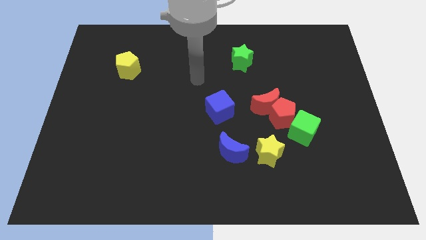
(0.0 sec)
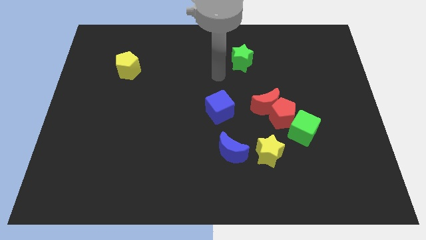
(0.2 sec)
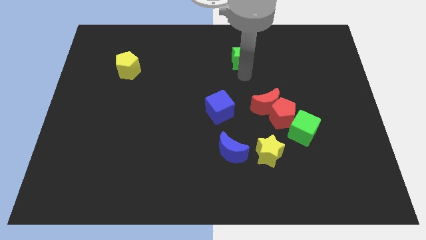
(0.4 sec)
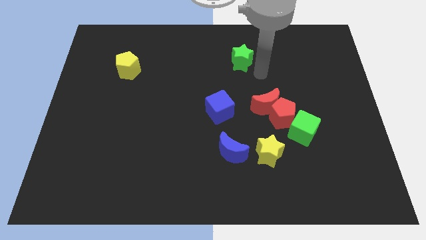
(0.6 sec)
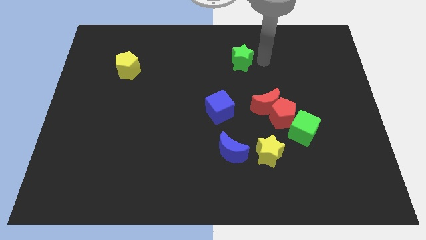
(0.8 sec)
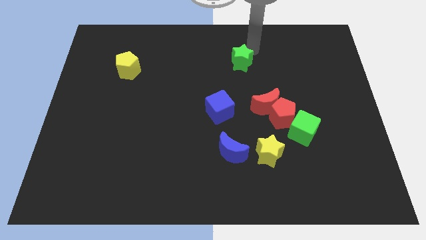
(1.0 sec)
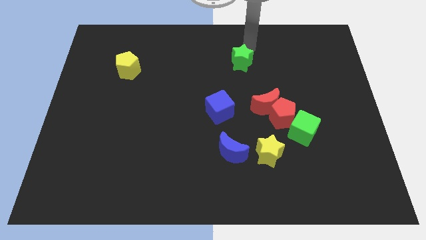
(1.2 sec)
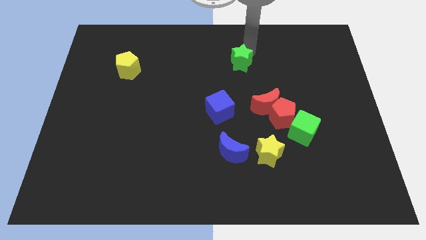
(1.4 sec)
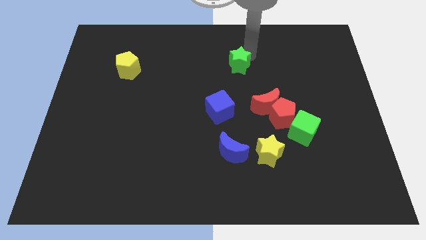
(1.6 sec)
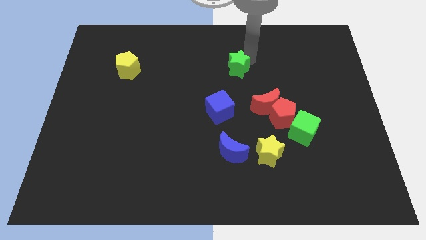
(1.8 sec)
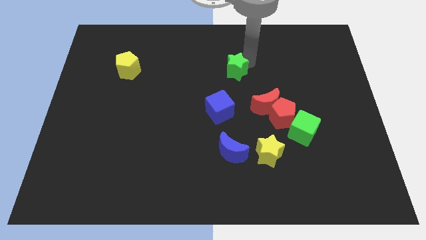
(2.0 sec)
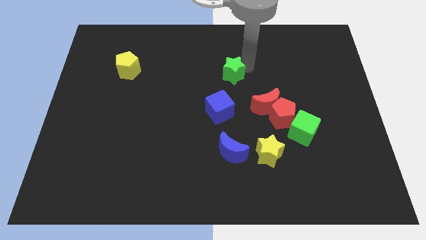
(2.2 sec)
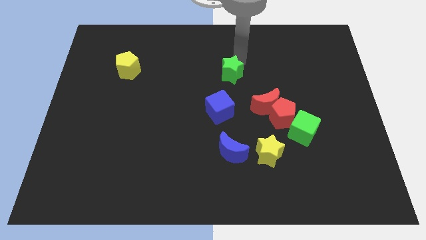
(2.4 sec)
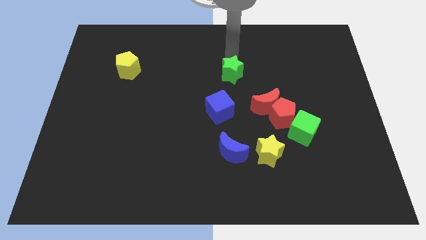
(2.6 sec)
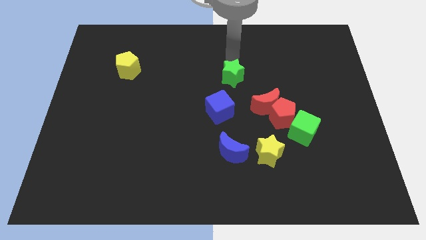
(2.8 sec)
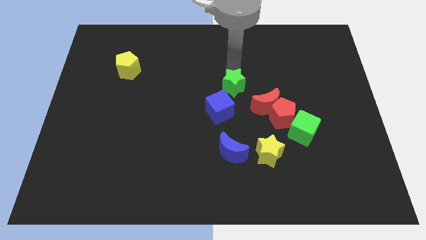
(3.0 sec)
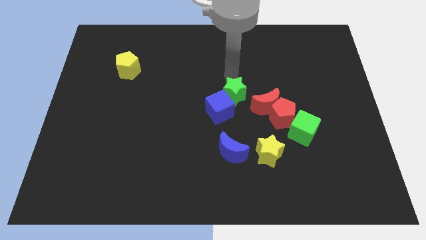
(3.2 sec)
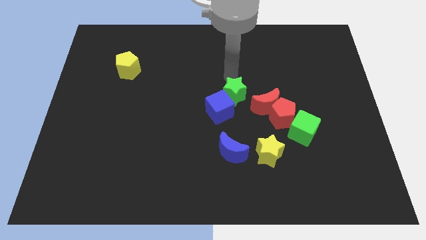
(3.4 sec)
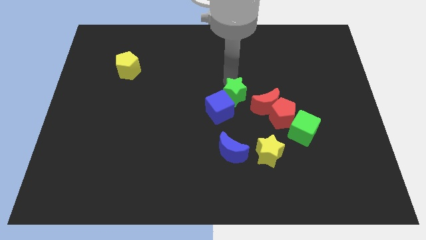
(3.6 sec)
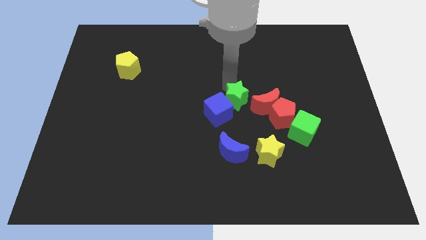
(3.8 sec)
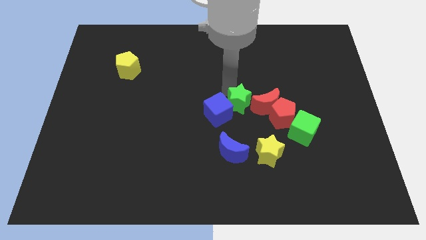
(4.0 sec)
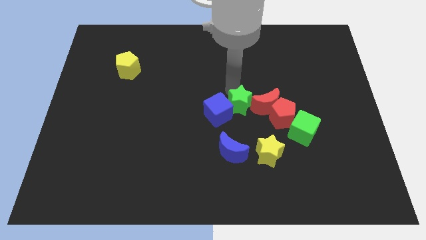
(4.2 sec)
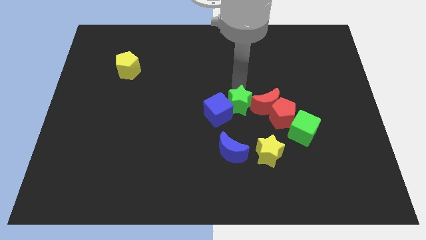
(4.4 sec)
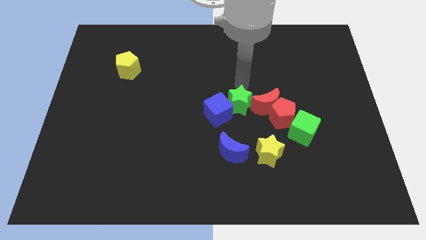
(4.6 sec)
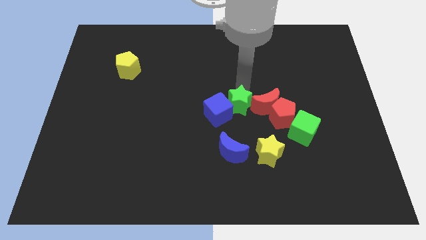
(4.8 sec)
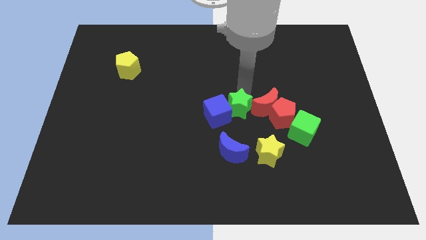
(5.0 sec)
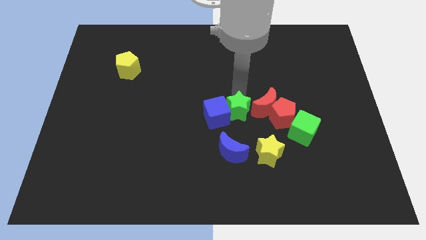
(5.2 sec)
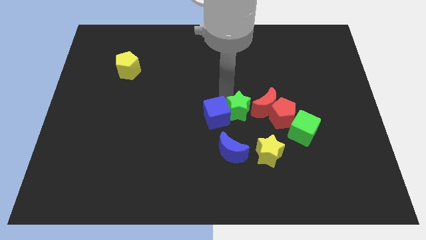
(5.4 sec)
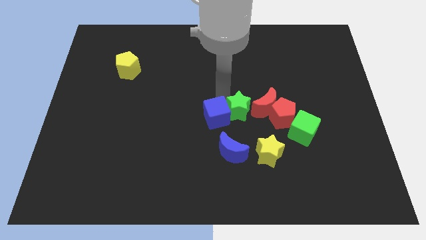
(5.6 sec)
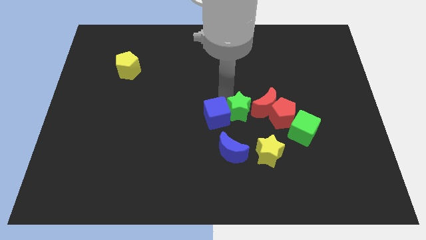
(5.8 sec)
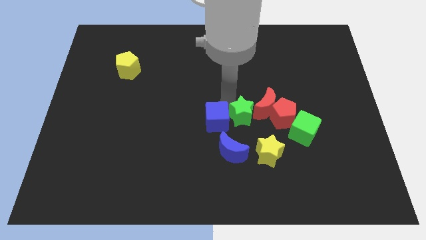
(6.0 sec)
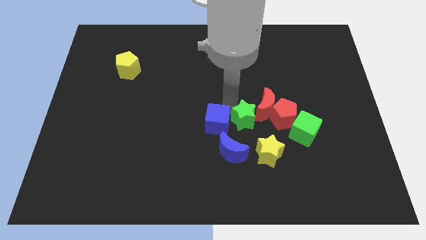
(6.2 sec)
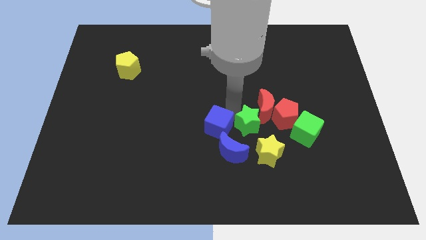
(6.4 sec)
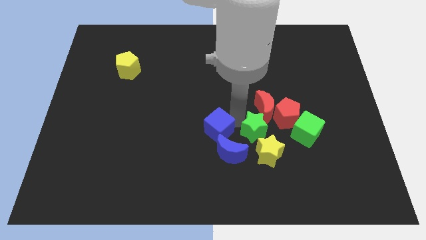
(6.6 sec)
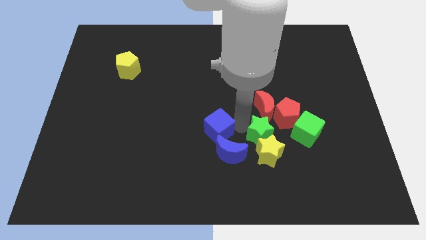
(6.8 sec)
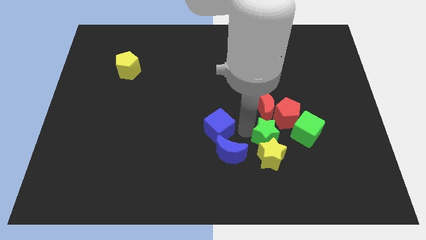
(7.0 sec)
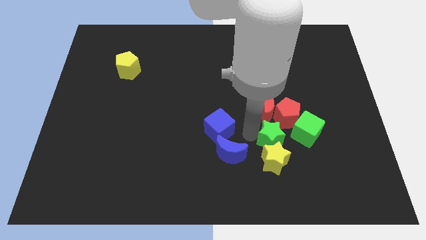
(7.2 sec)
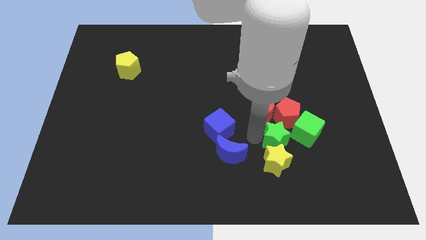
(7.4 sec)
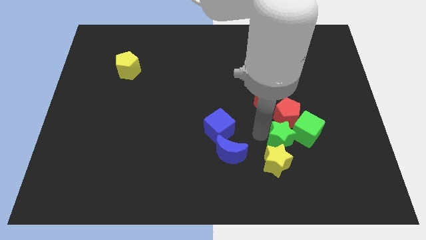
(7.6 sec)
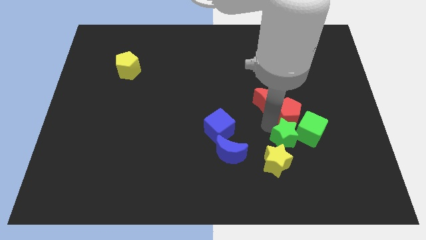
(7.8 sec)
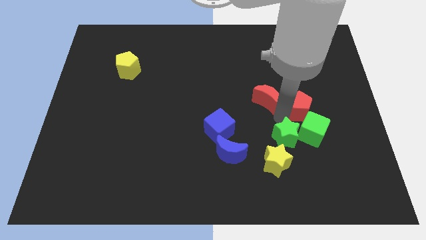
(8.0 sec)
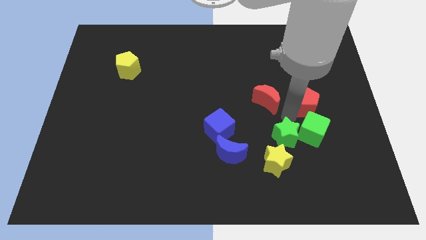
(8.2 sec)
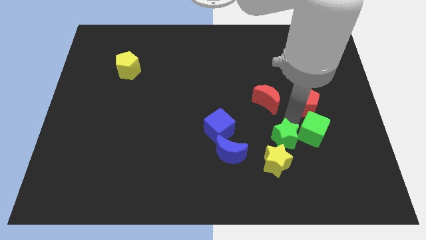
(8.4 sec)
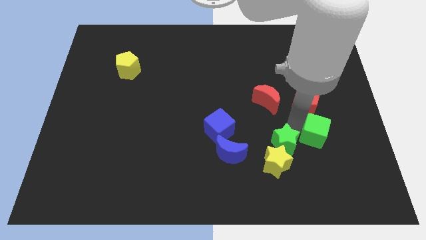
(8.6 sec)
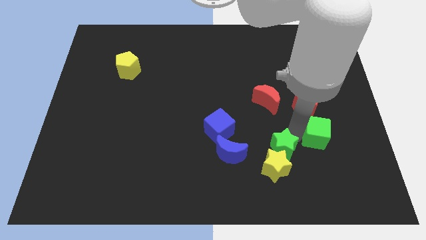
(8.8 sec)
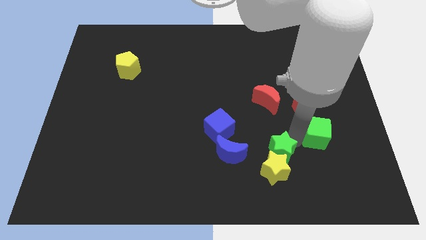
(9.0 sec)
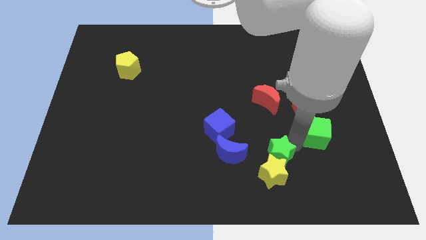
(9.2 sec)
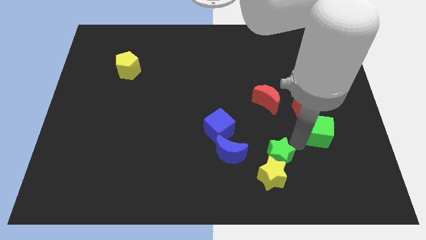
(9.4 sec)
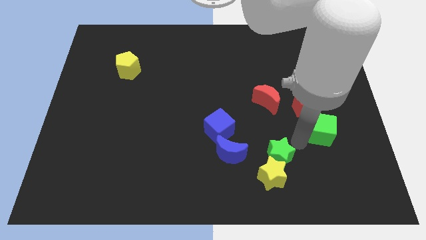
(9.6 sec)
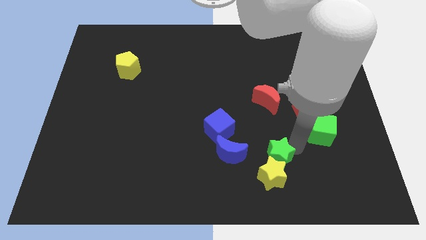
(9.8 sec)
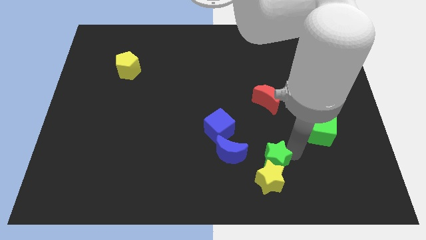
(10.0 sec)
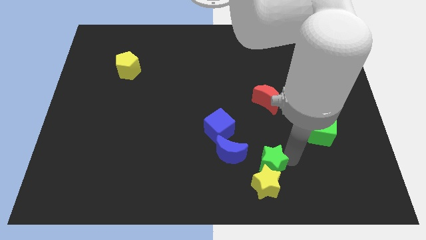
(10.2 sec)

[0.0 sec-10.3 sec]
push the green star to the bottom right of the blue moon

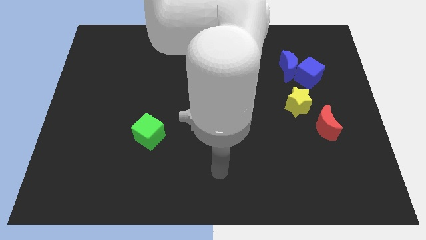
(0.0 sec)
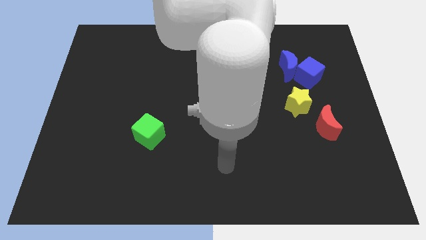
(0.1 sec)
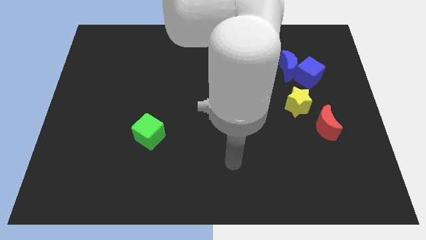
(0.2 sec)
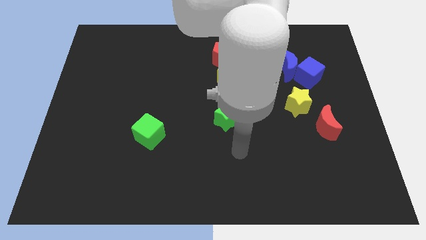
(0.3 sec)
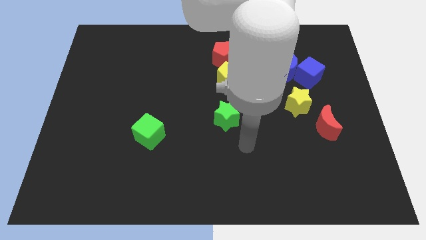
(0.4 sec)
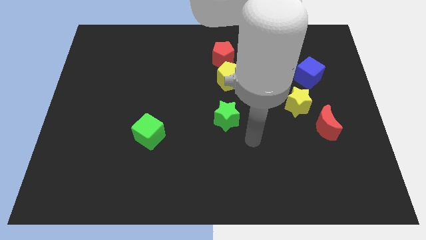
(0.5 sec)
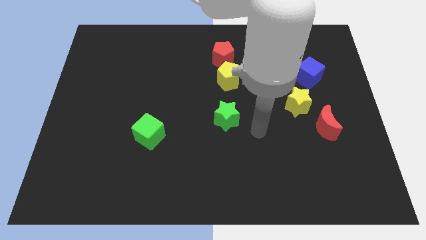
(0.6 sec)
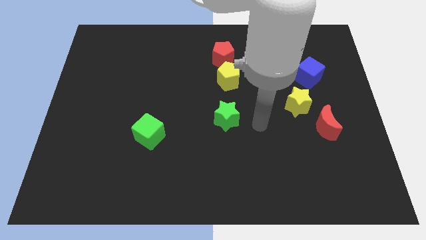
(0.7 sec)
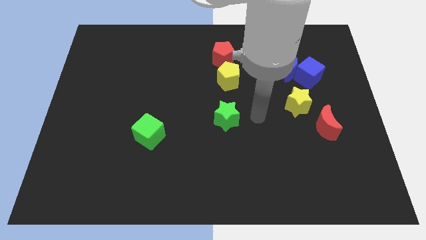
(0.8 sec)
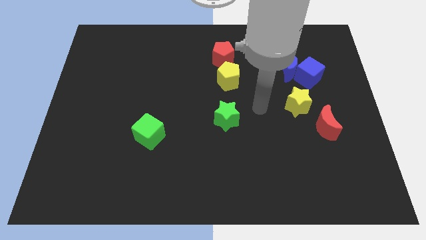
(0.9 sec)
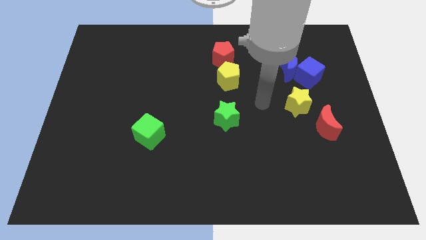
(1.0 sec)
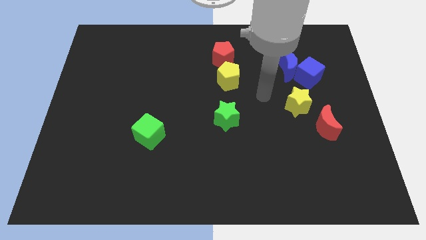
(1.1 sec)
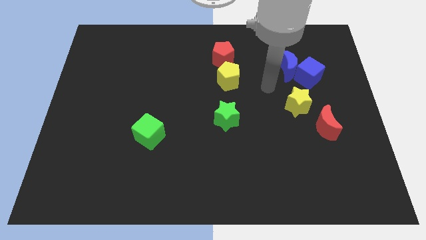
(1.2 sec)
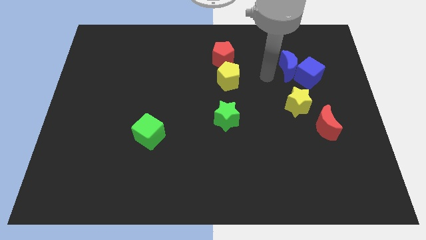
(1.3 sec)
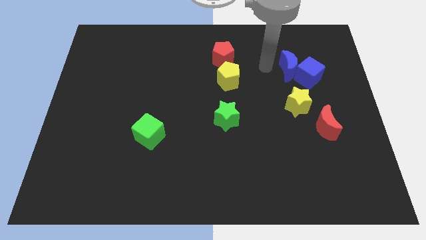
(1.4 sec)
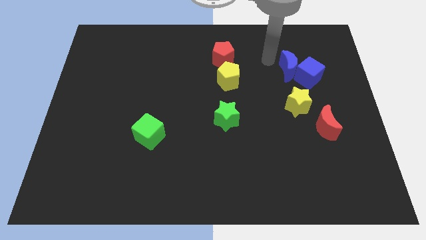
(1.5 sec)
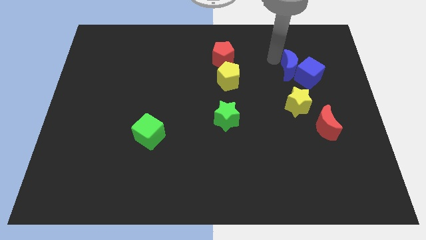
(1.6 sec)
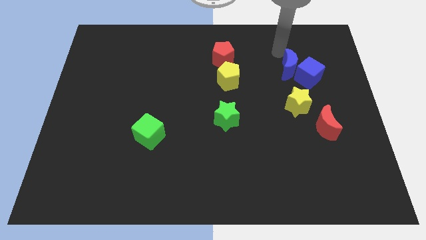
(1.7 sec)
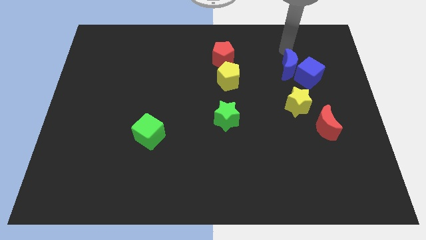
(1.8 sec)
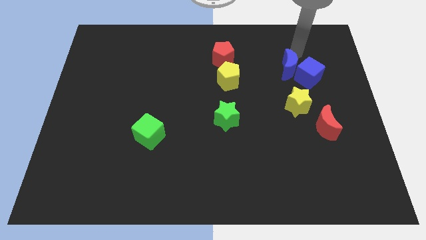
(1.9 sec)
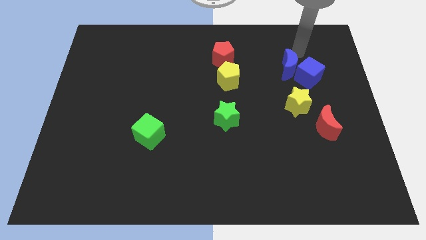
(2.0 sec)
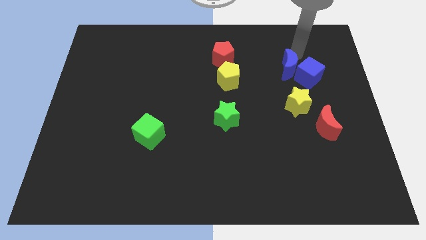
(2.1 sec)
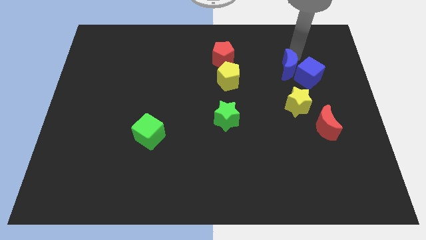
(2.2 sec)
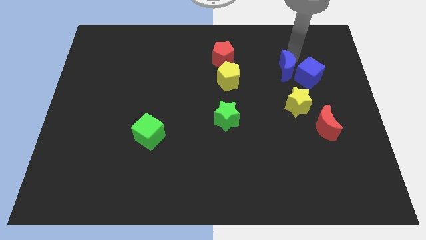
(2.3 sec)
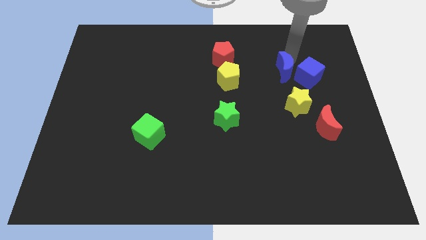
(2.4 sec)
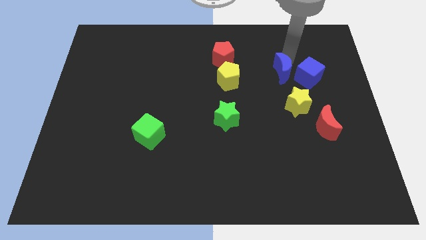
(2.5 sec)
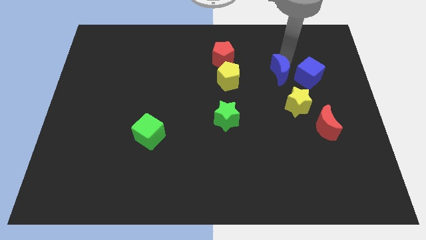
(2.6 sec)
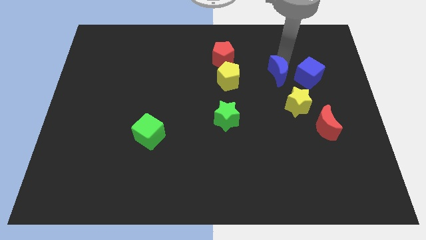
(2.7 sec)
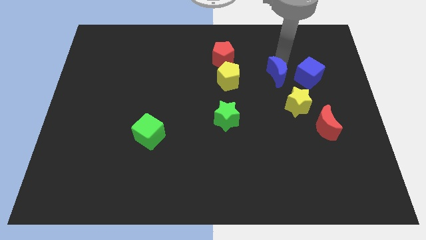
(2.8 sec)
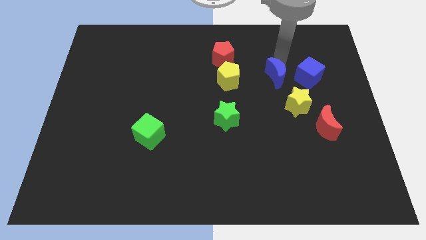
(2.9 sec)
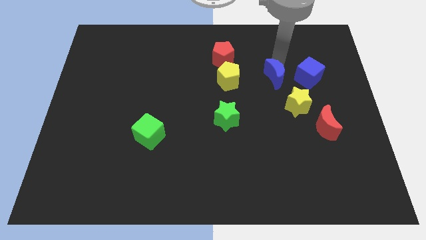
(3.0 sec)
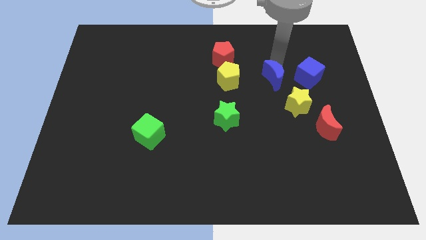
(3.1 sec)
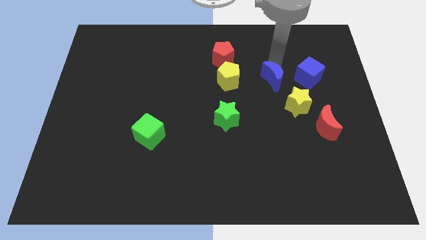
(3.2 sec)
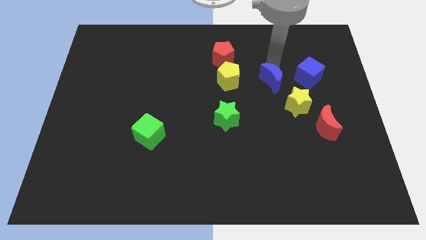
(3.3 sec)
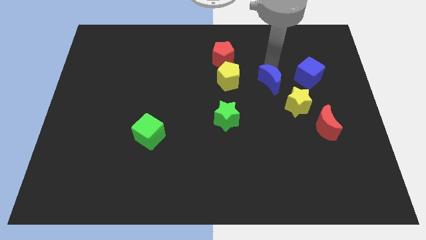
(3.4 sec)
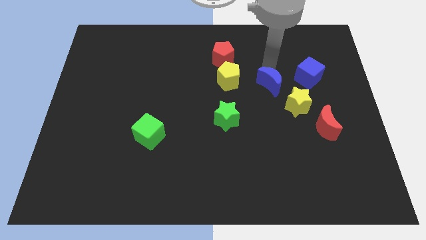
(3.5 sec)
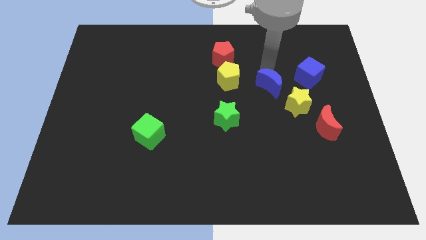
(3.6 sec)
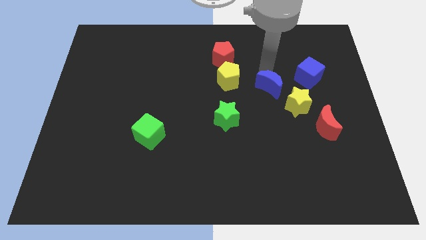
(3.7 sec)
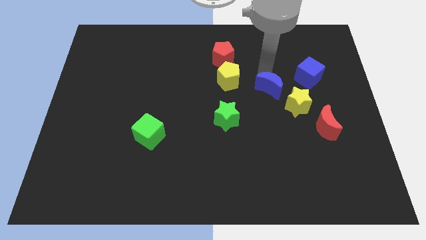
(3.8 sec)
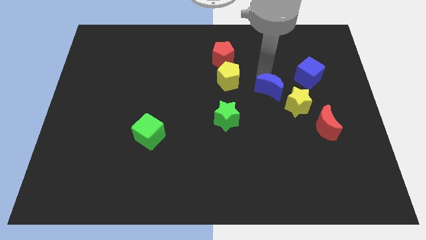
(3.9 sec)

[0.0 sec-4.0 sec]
move the blue moon just left of the yellow star
